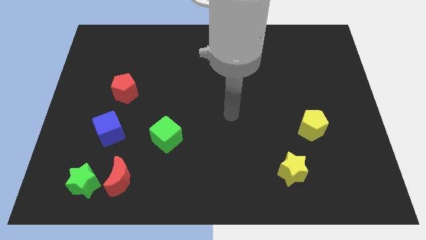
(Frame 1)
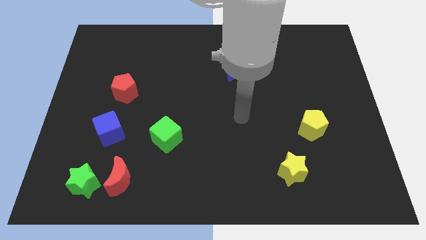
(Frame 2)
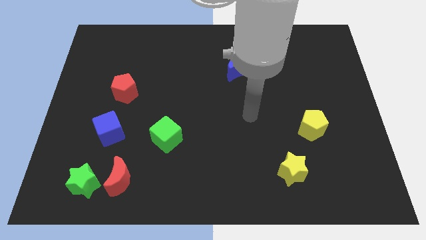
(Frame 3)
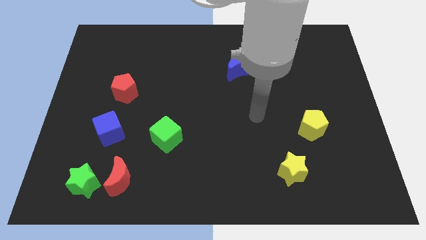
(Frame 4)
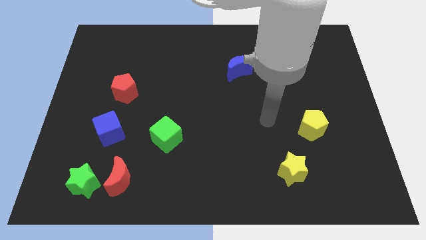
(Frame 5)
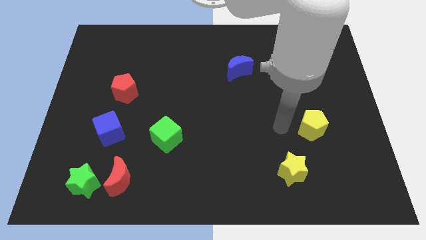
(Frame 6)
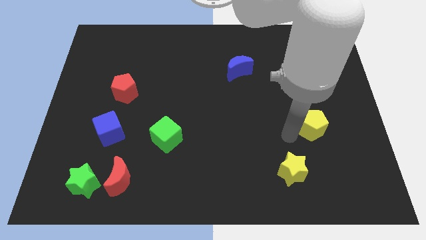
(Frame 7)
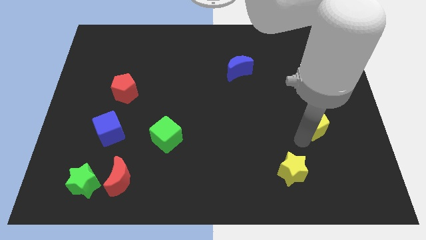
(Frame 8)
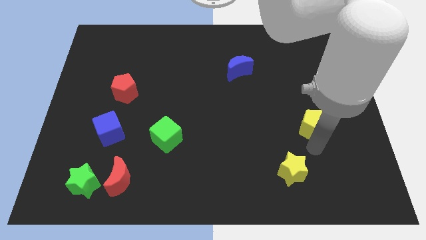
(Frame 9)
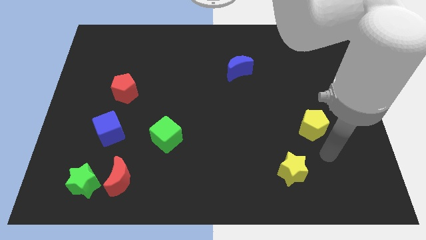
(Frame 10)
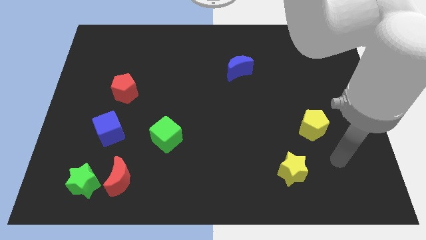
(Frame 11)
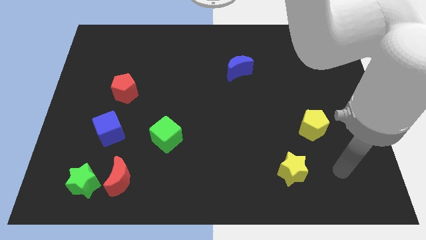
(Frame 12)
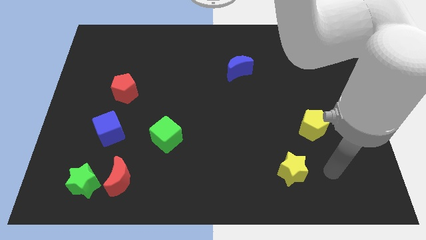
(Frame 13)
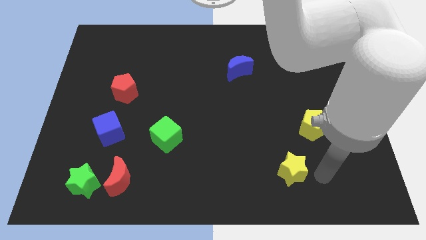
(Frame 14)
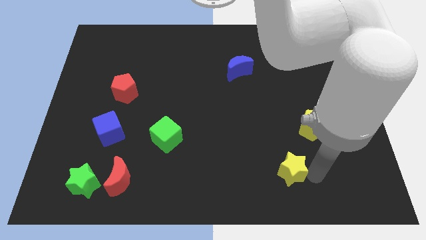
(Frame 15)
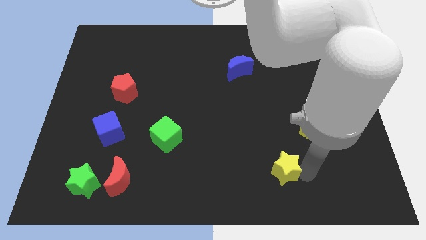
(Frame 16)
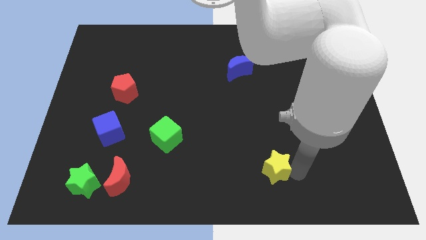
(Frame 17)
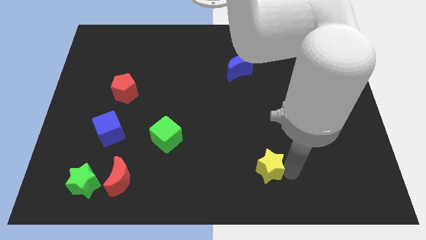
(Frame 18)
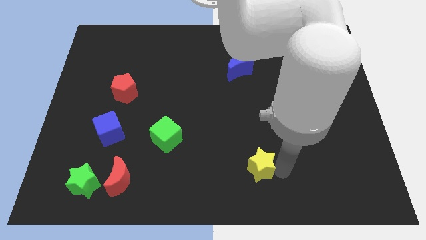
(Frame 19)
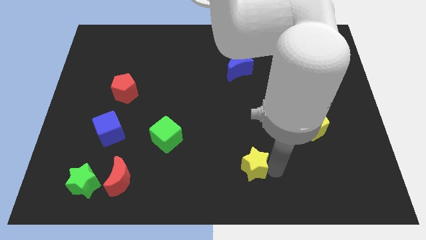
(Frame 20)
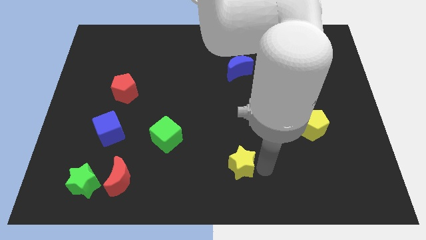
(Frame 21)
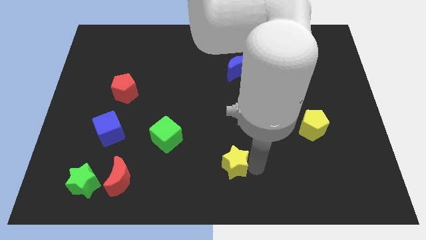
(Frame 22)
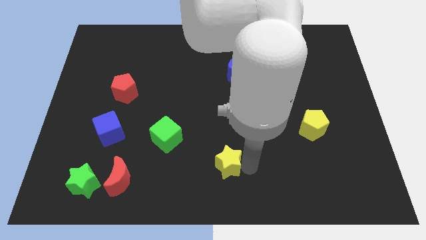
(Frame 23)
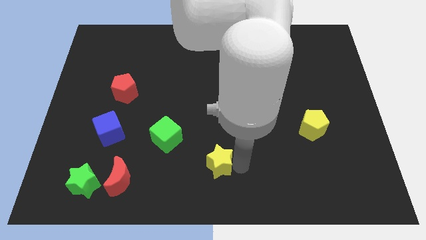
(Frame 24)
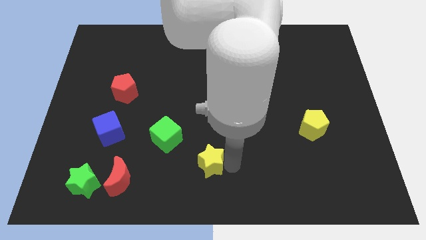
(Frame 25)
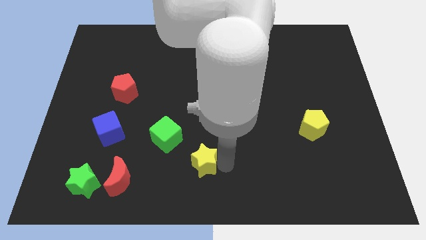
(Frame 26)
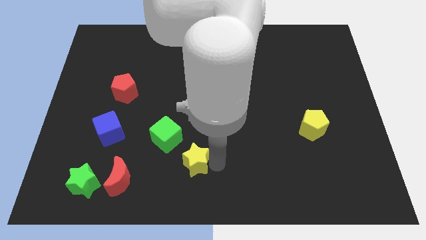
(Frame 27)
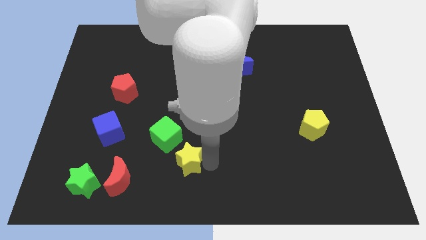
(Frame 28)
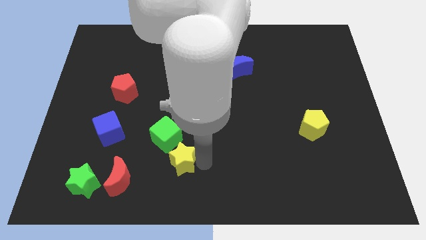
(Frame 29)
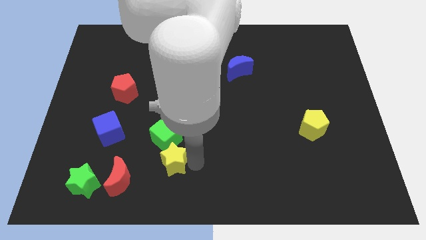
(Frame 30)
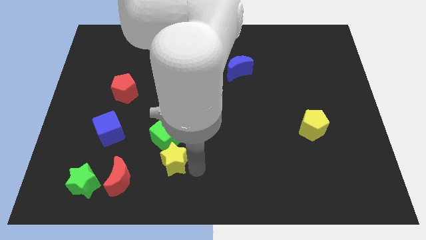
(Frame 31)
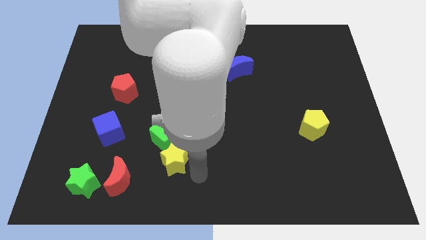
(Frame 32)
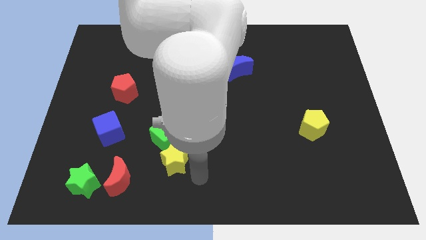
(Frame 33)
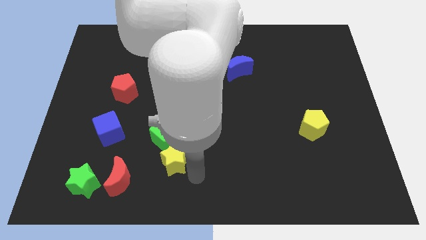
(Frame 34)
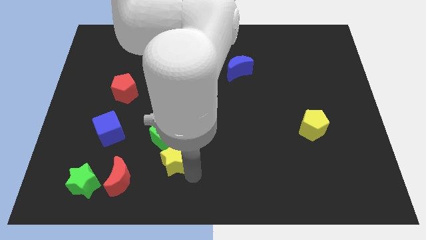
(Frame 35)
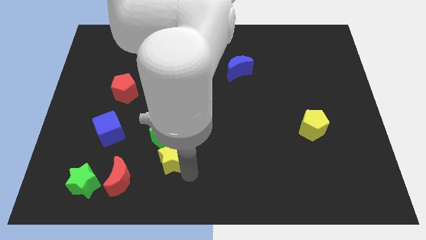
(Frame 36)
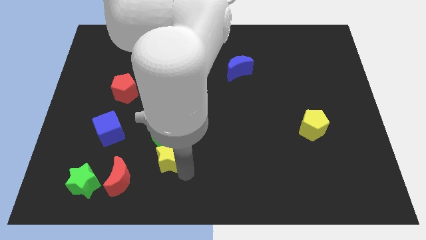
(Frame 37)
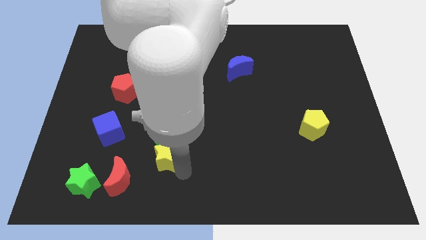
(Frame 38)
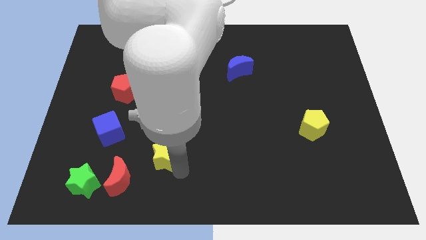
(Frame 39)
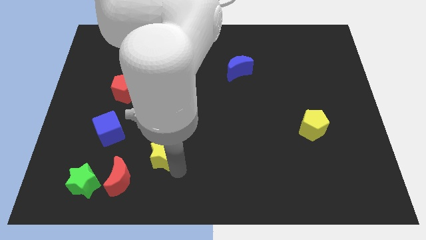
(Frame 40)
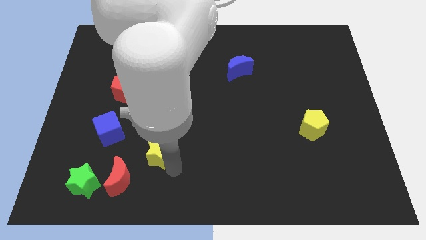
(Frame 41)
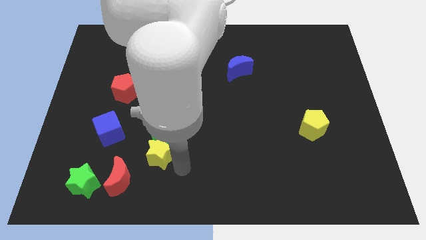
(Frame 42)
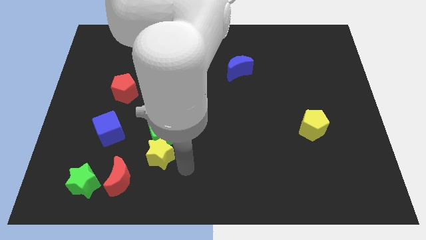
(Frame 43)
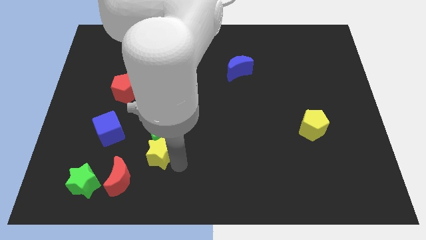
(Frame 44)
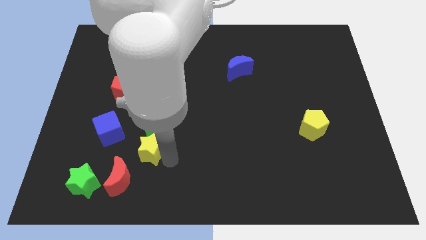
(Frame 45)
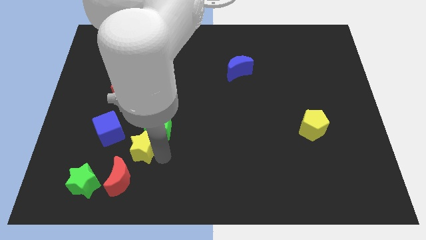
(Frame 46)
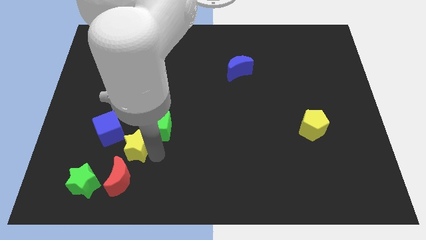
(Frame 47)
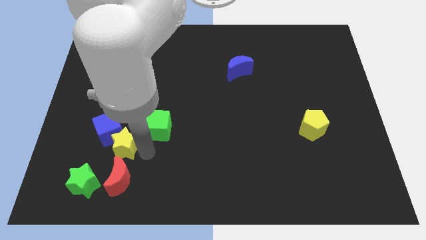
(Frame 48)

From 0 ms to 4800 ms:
push the yellow star next to the blue cube

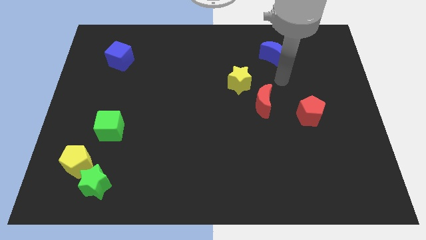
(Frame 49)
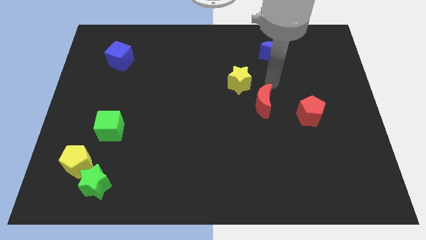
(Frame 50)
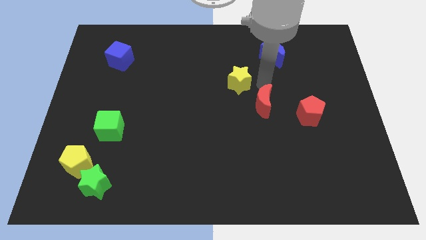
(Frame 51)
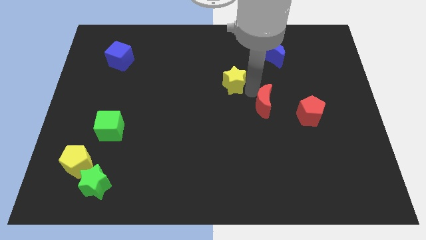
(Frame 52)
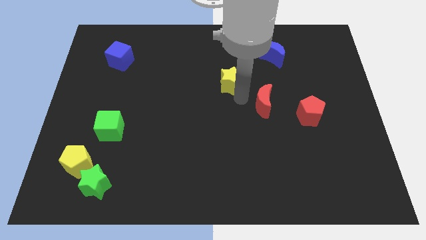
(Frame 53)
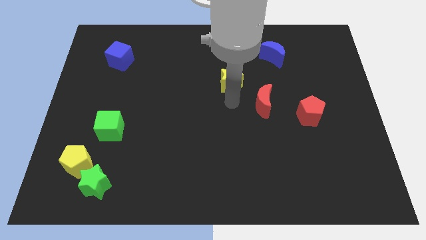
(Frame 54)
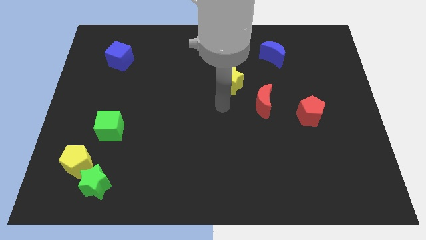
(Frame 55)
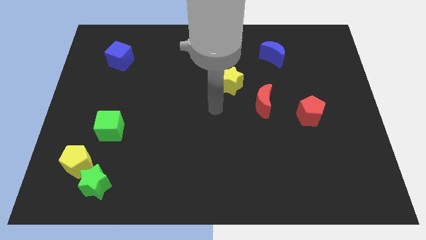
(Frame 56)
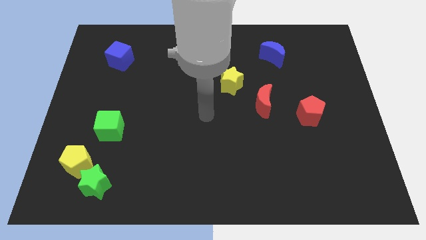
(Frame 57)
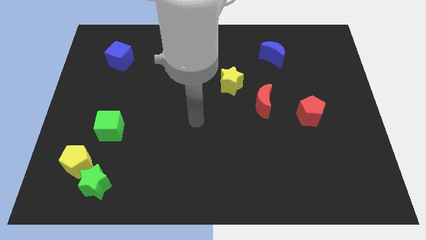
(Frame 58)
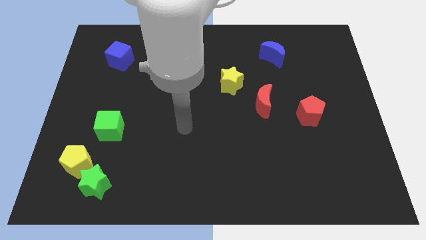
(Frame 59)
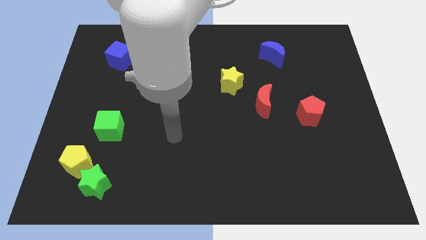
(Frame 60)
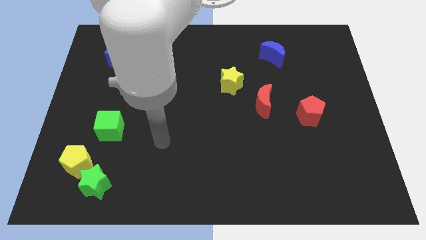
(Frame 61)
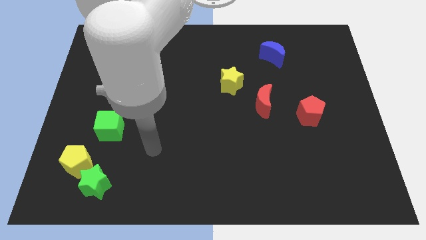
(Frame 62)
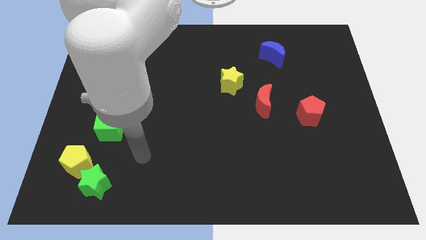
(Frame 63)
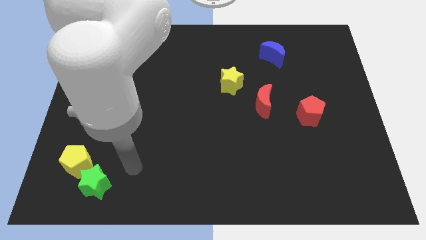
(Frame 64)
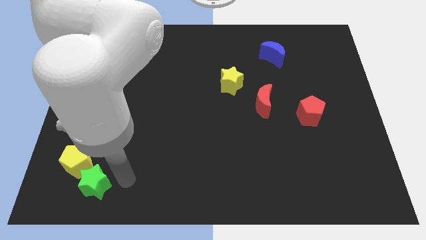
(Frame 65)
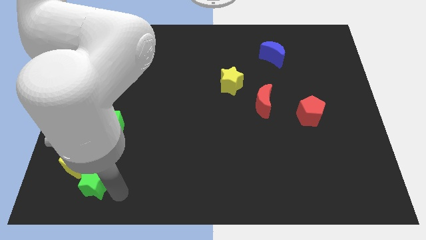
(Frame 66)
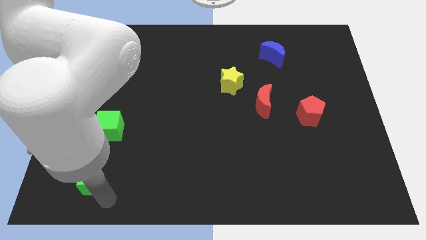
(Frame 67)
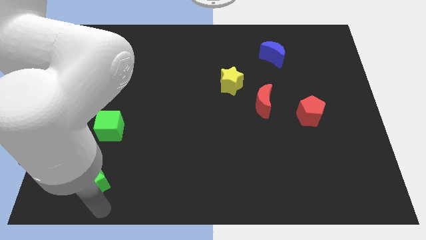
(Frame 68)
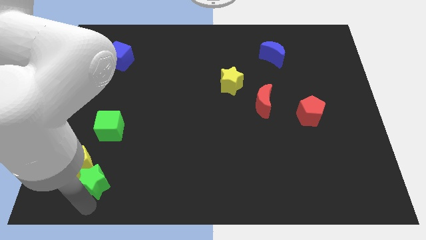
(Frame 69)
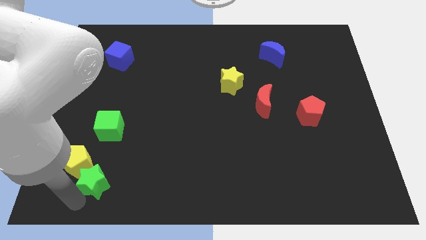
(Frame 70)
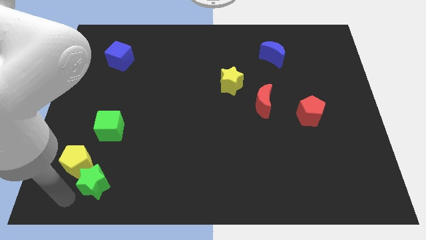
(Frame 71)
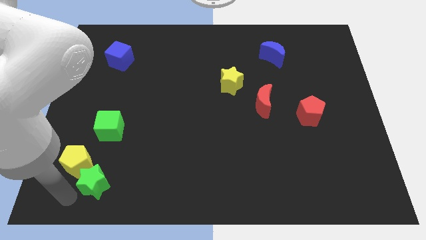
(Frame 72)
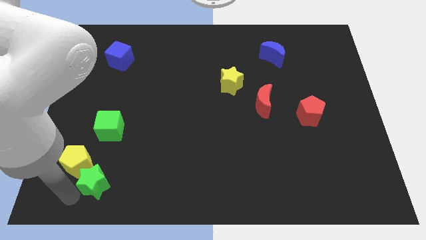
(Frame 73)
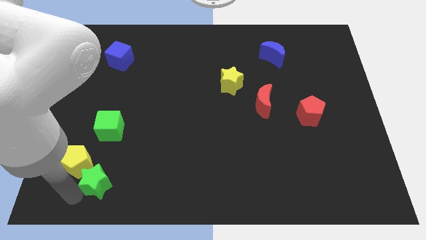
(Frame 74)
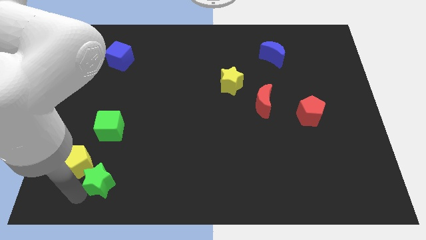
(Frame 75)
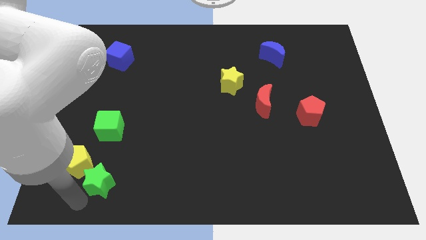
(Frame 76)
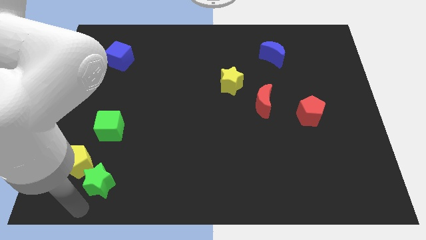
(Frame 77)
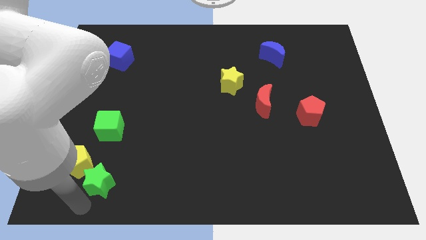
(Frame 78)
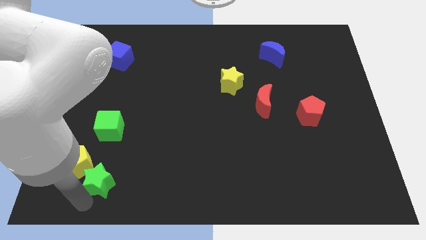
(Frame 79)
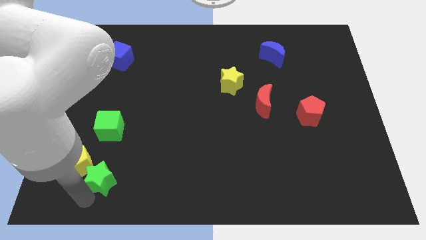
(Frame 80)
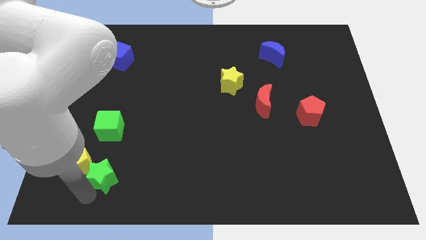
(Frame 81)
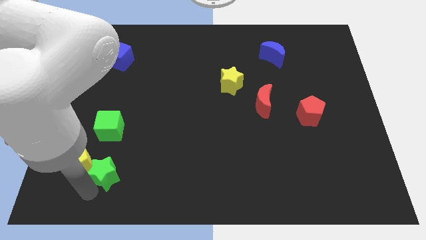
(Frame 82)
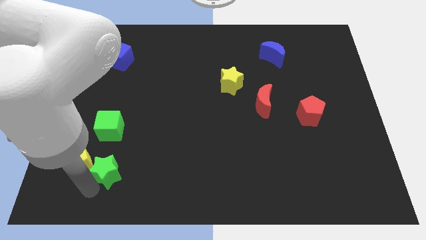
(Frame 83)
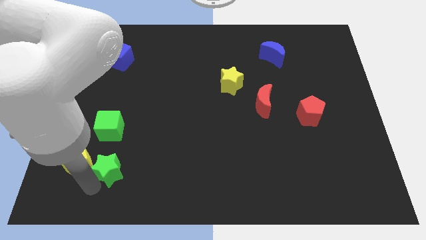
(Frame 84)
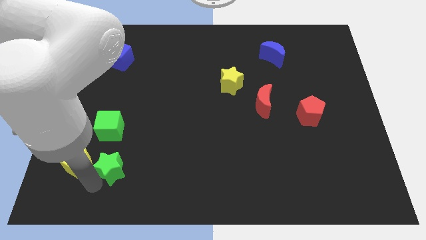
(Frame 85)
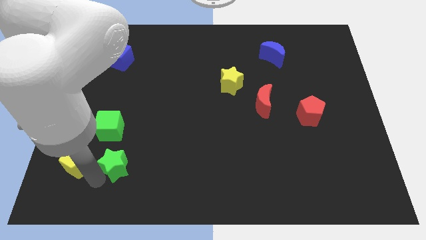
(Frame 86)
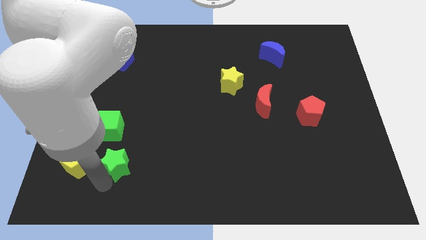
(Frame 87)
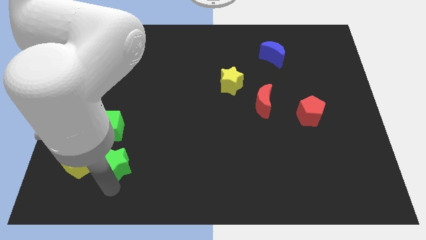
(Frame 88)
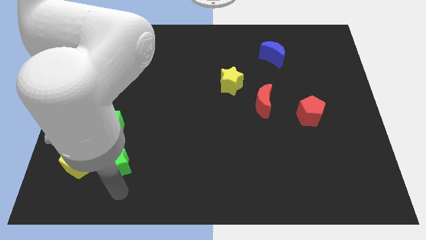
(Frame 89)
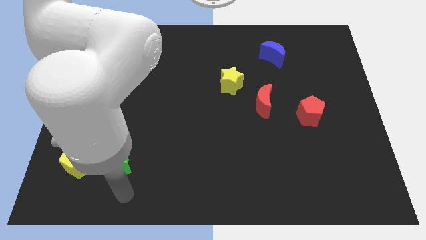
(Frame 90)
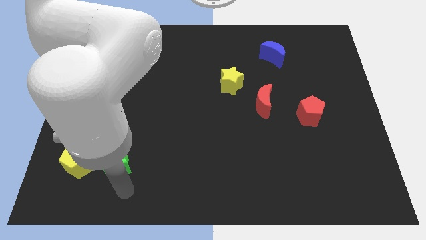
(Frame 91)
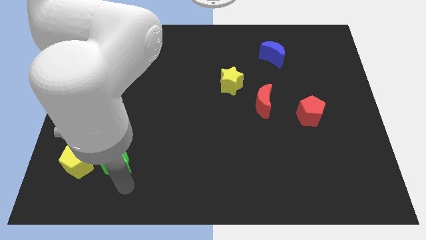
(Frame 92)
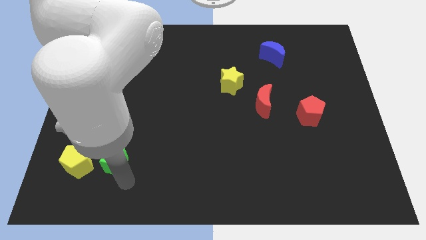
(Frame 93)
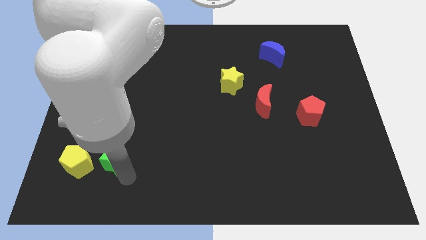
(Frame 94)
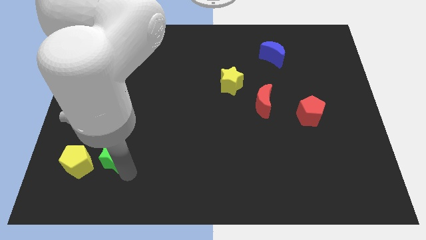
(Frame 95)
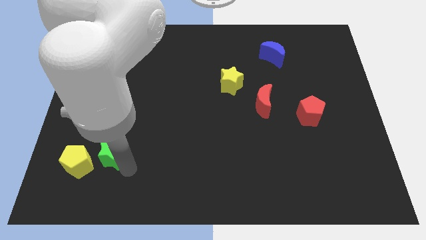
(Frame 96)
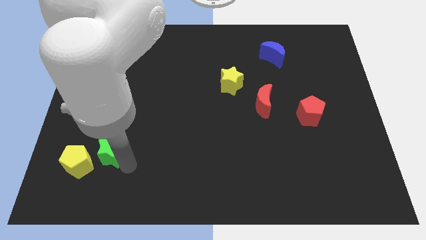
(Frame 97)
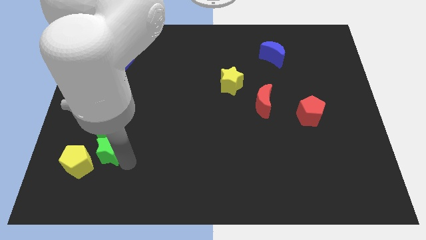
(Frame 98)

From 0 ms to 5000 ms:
put the green star to the green cube
